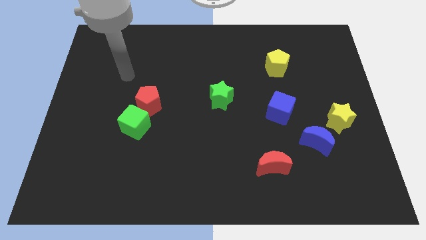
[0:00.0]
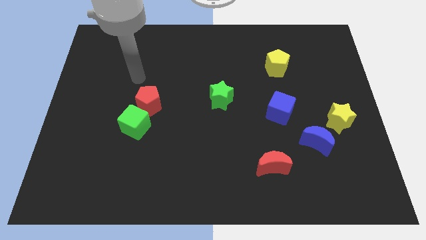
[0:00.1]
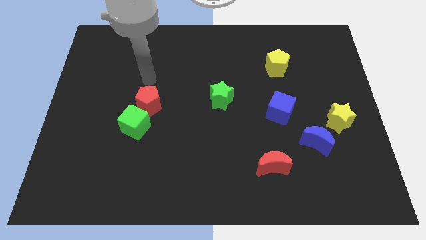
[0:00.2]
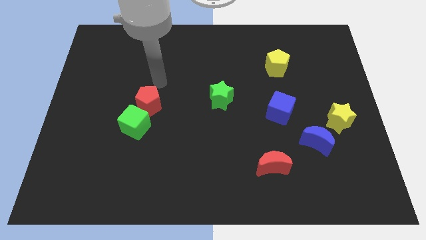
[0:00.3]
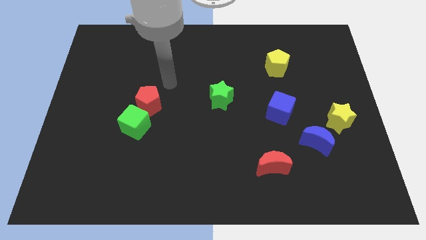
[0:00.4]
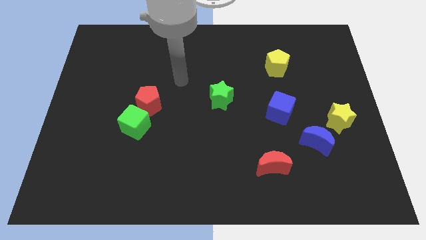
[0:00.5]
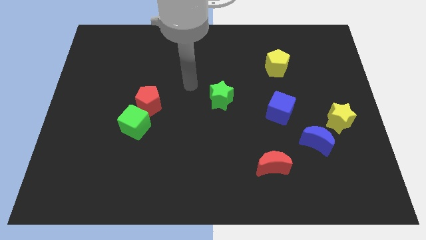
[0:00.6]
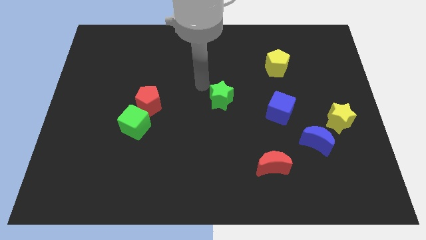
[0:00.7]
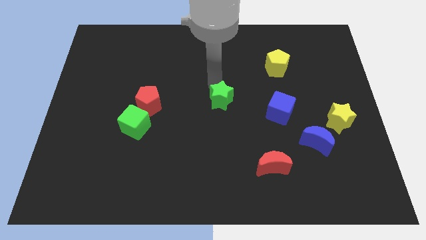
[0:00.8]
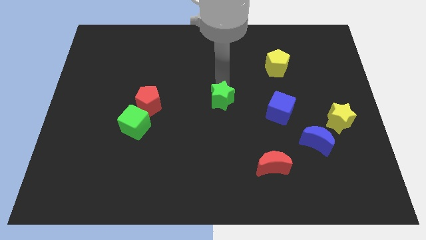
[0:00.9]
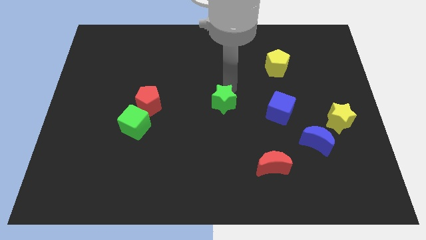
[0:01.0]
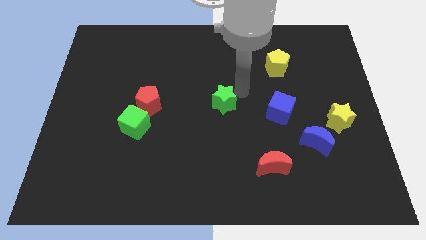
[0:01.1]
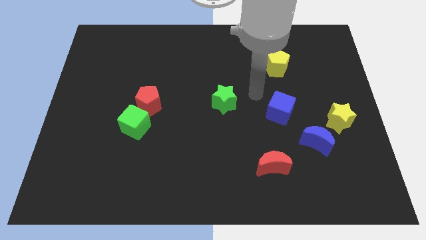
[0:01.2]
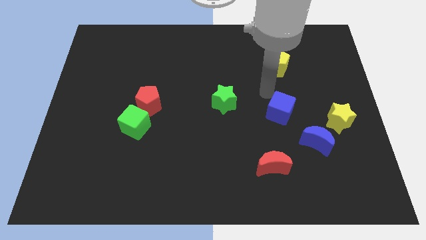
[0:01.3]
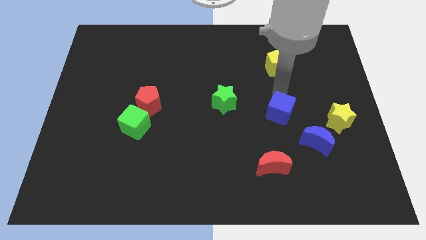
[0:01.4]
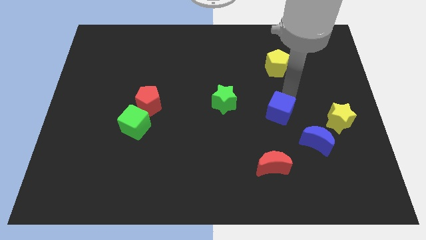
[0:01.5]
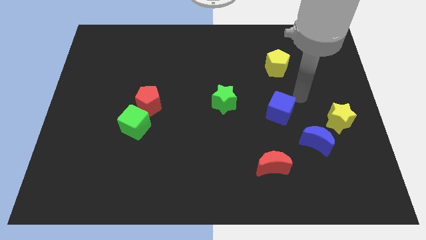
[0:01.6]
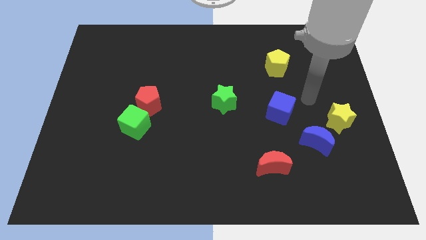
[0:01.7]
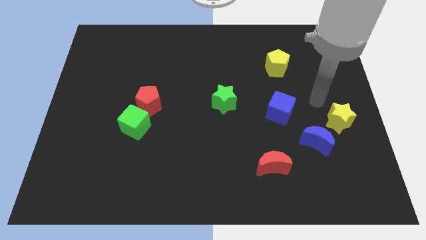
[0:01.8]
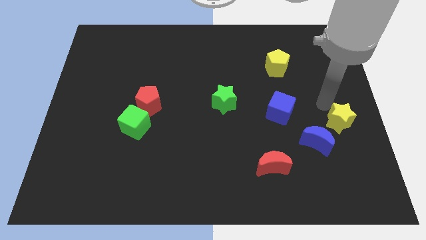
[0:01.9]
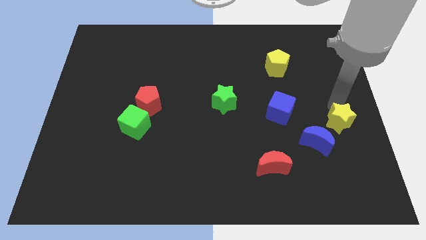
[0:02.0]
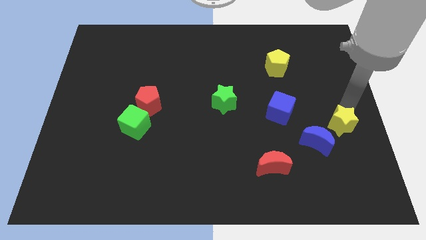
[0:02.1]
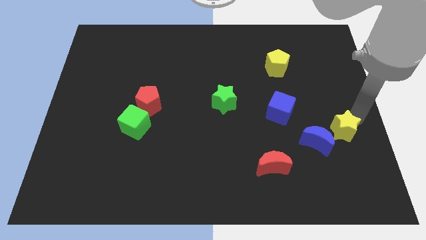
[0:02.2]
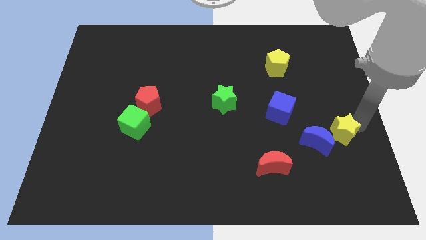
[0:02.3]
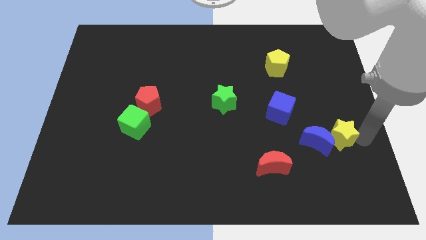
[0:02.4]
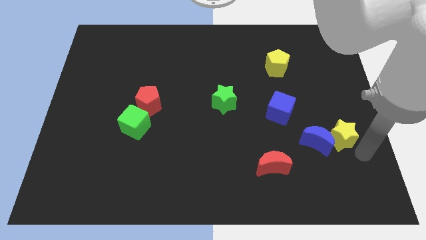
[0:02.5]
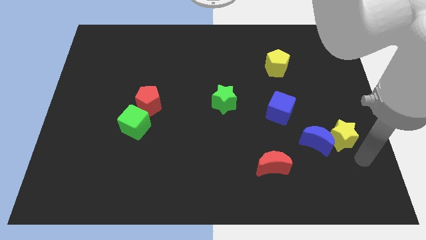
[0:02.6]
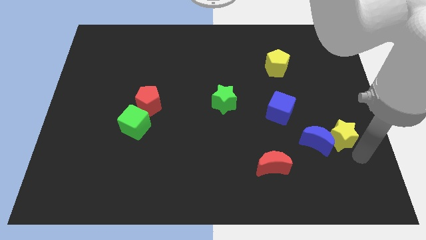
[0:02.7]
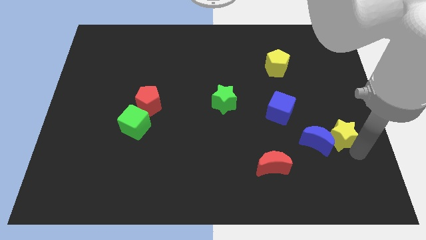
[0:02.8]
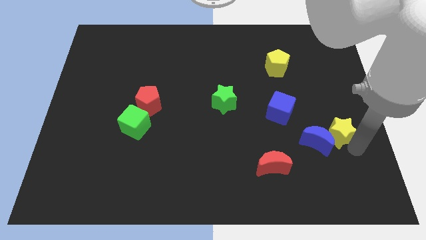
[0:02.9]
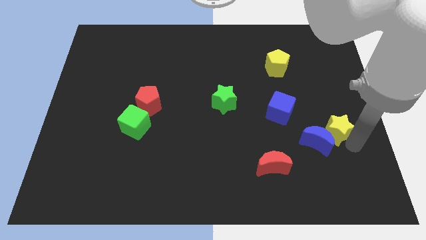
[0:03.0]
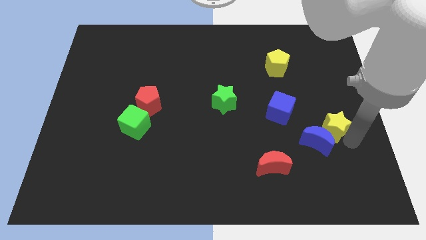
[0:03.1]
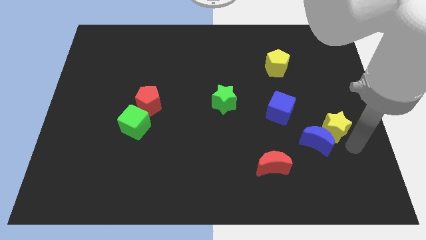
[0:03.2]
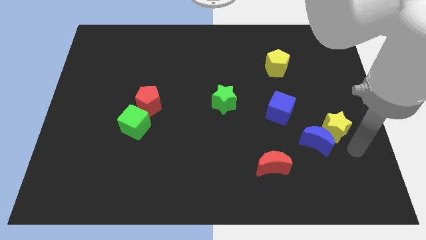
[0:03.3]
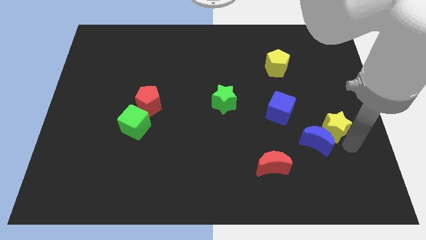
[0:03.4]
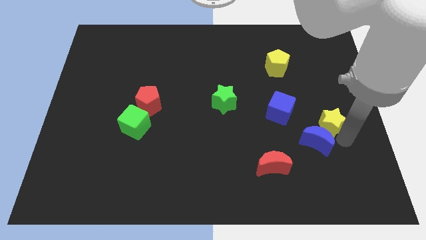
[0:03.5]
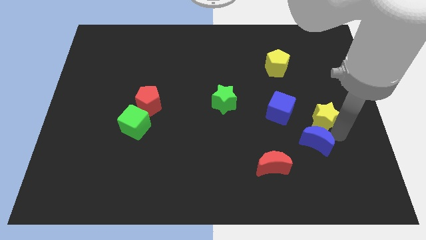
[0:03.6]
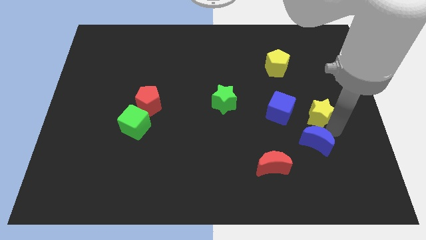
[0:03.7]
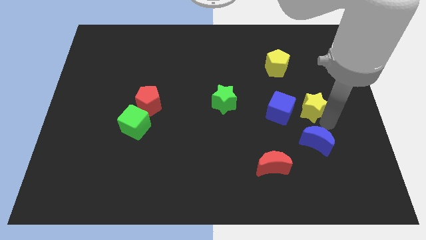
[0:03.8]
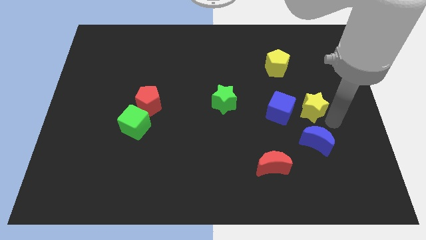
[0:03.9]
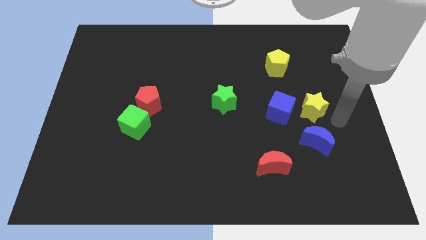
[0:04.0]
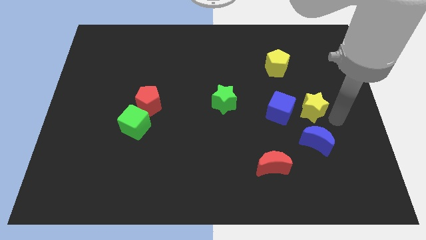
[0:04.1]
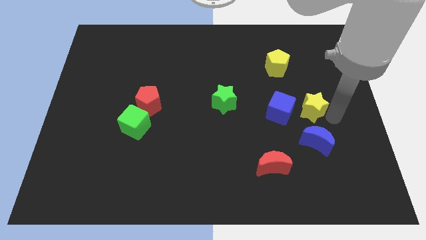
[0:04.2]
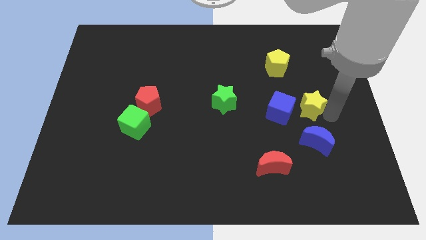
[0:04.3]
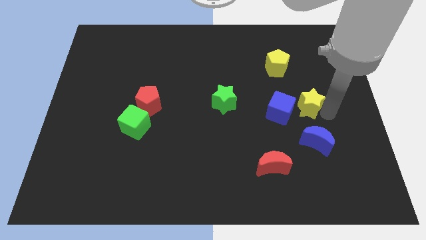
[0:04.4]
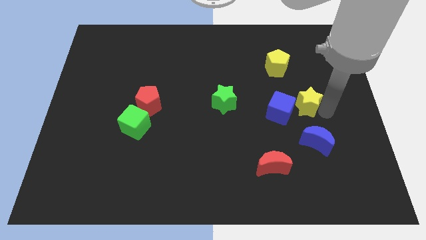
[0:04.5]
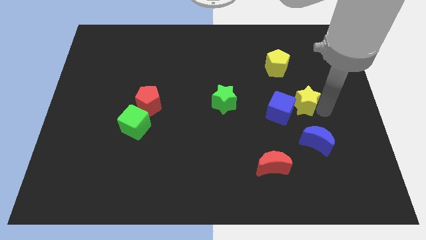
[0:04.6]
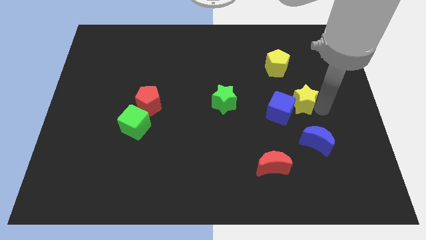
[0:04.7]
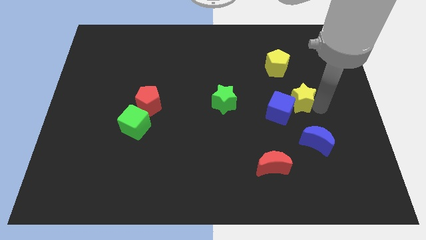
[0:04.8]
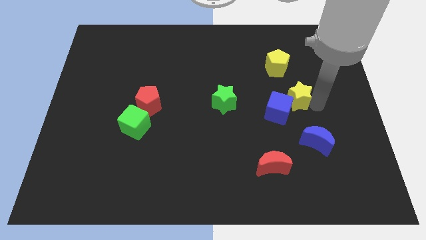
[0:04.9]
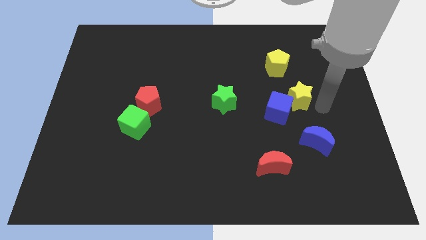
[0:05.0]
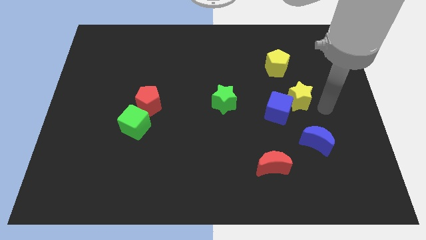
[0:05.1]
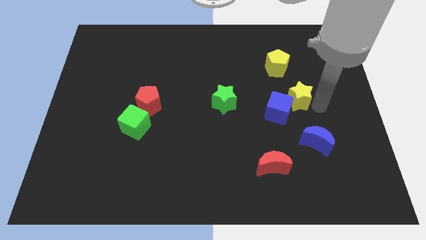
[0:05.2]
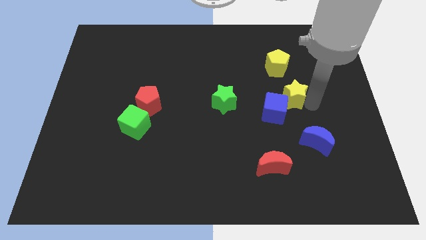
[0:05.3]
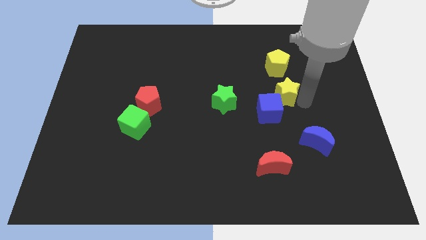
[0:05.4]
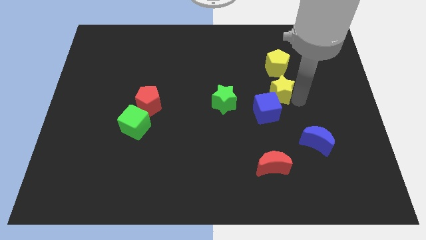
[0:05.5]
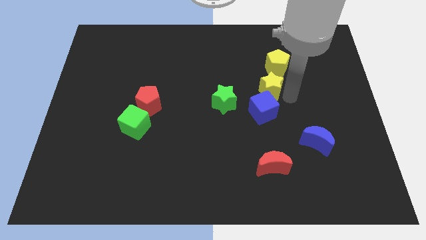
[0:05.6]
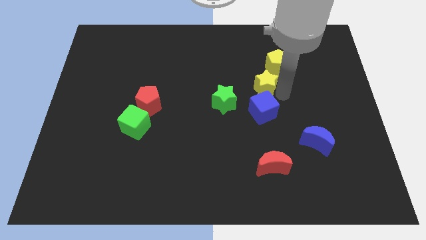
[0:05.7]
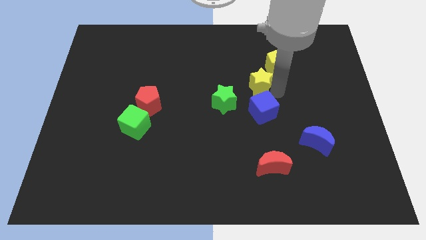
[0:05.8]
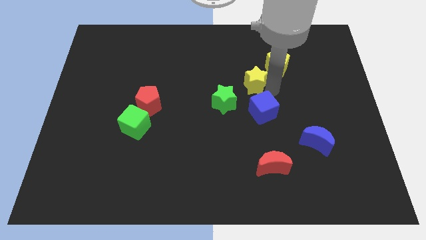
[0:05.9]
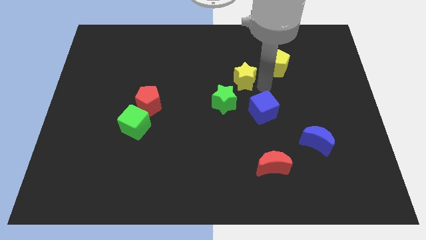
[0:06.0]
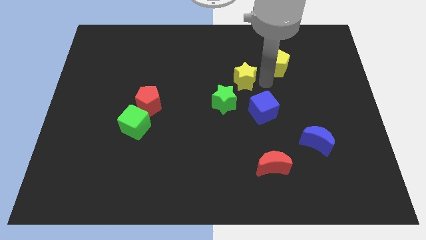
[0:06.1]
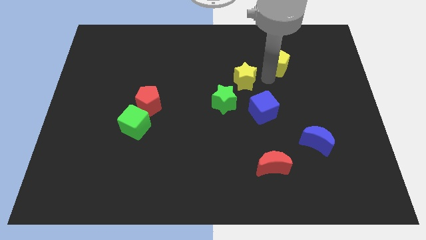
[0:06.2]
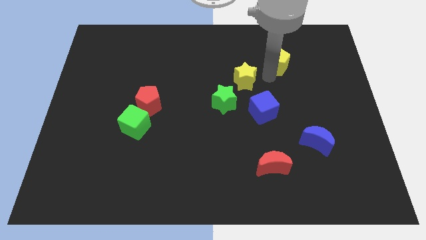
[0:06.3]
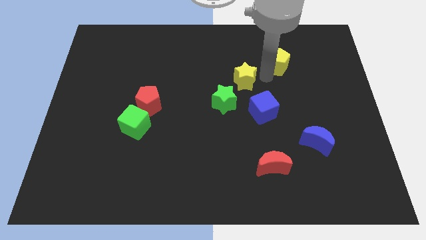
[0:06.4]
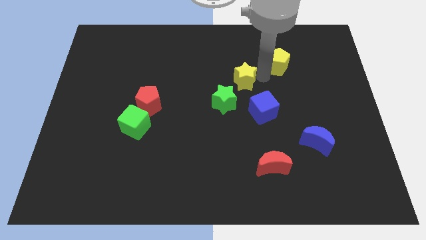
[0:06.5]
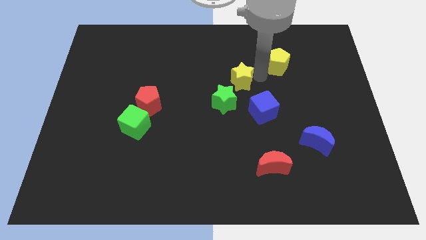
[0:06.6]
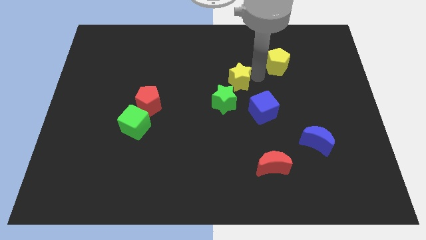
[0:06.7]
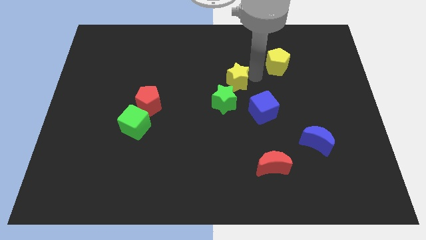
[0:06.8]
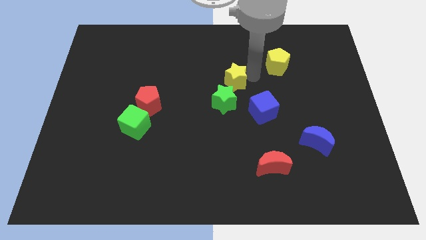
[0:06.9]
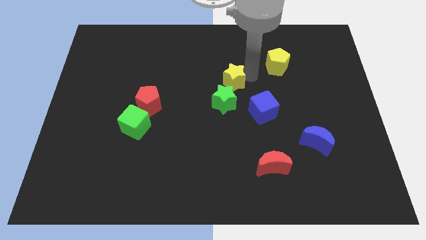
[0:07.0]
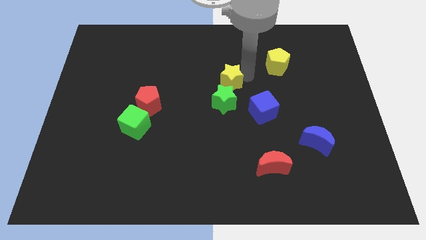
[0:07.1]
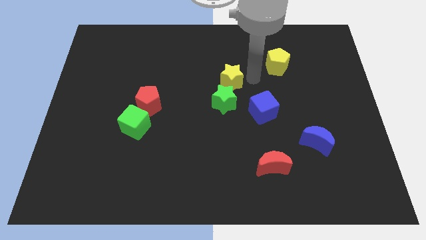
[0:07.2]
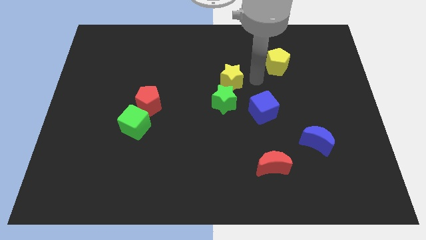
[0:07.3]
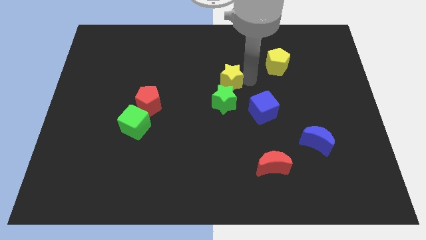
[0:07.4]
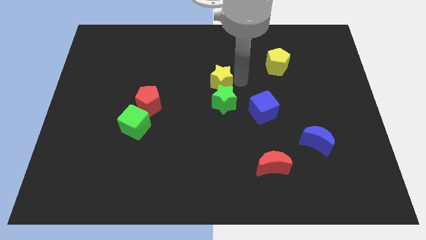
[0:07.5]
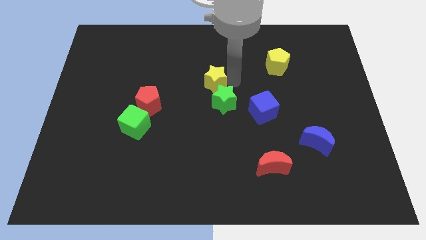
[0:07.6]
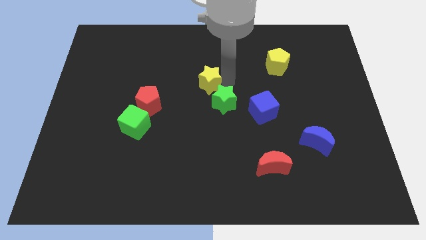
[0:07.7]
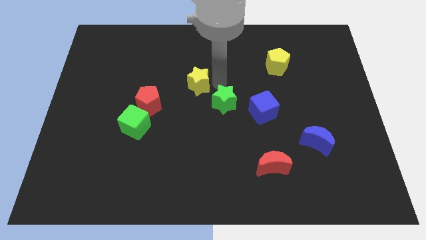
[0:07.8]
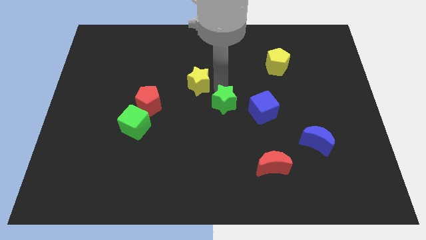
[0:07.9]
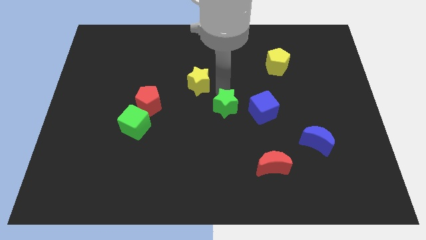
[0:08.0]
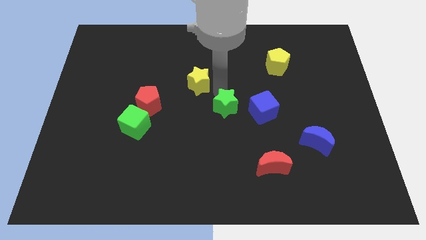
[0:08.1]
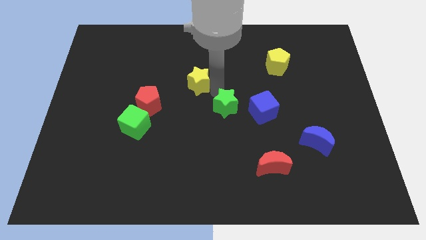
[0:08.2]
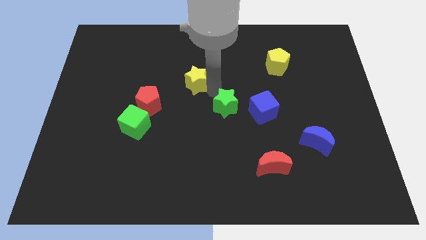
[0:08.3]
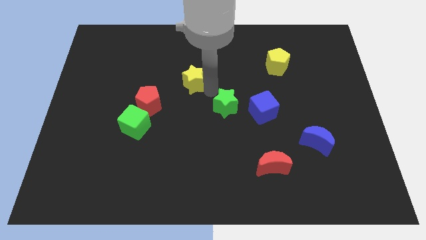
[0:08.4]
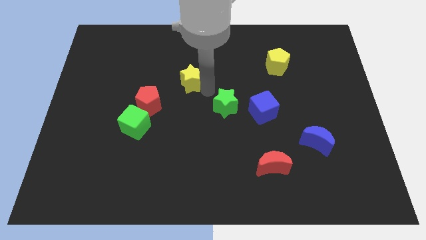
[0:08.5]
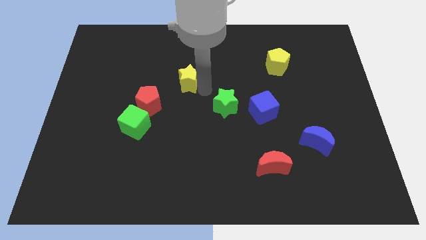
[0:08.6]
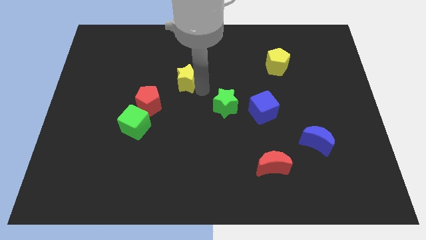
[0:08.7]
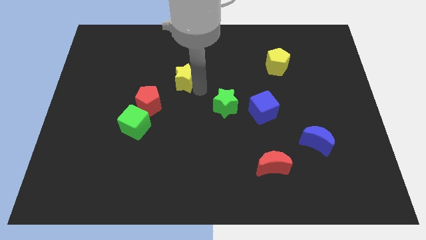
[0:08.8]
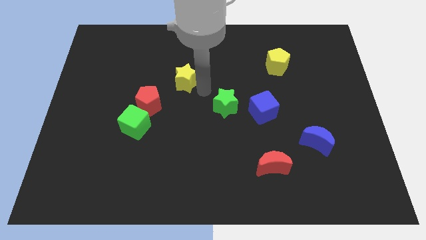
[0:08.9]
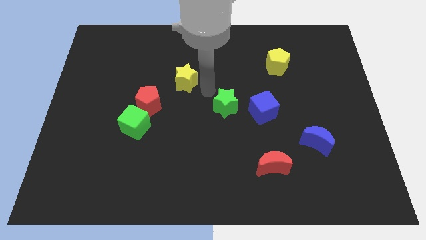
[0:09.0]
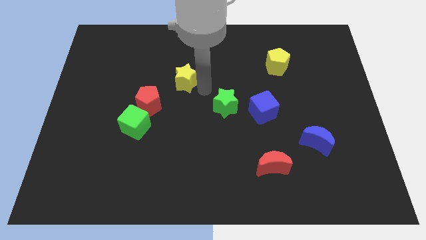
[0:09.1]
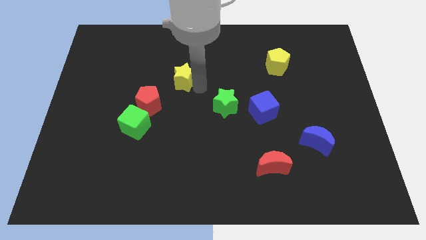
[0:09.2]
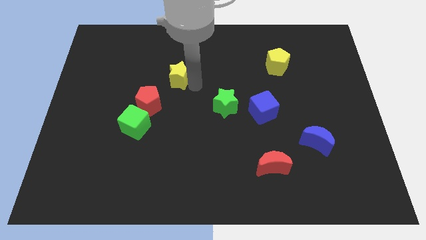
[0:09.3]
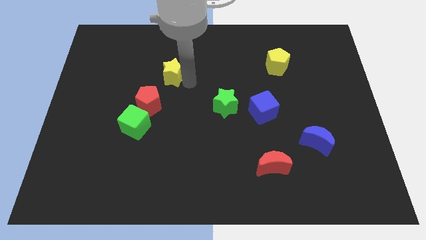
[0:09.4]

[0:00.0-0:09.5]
put the yellow star to the top side of the red pentagon
